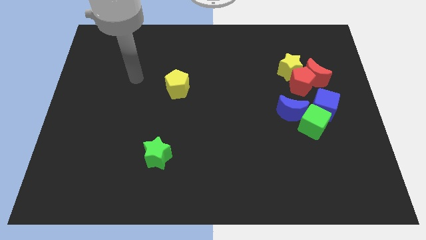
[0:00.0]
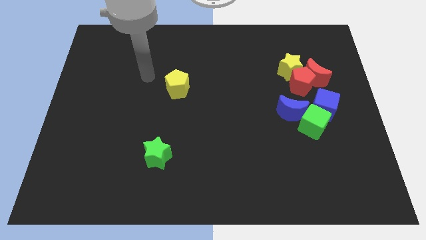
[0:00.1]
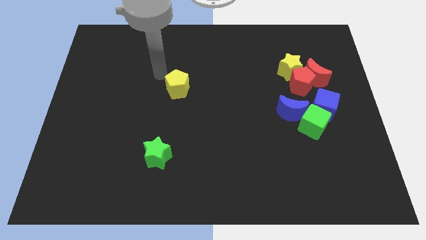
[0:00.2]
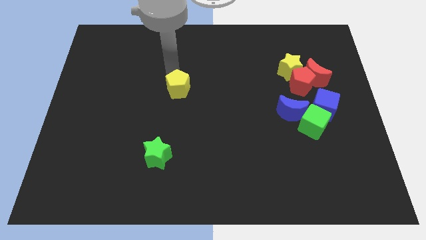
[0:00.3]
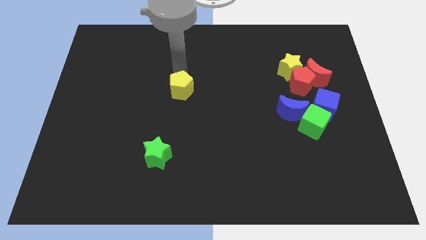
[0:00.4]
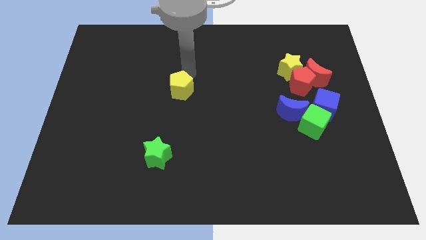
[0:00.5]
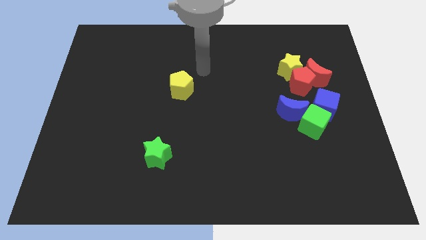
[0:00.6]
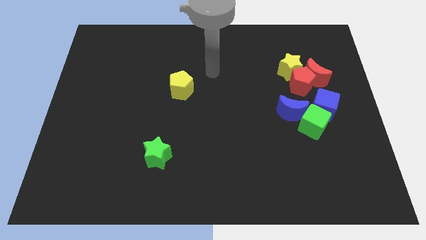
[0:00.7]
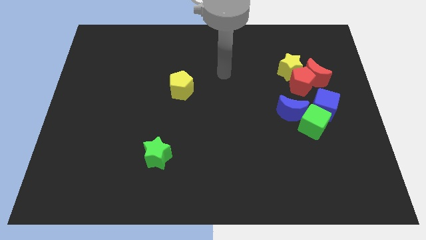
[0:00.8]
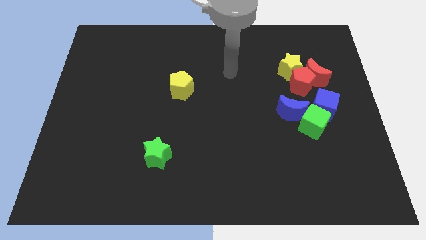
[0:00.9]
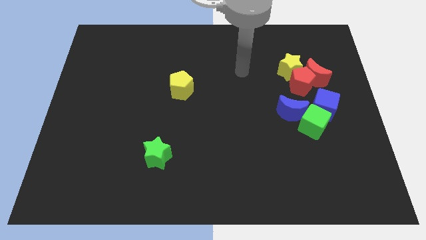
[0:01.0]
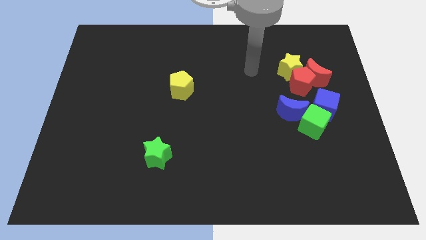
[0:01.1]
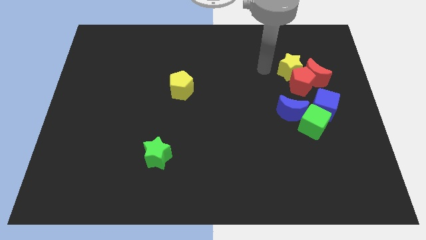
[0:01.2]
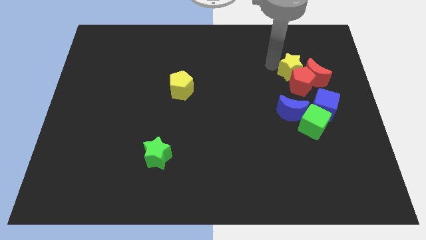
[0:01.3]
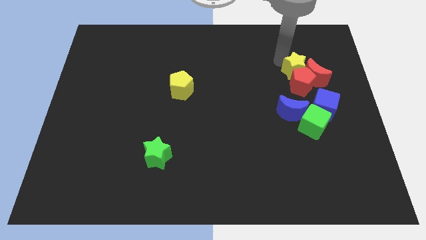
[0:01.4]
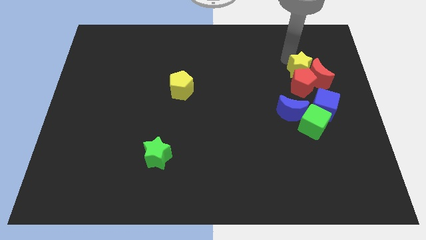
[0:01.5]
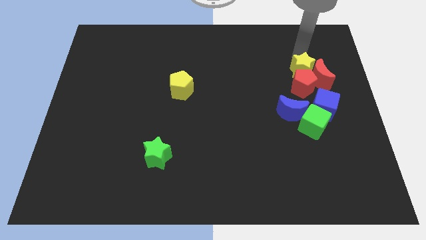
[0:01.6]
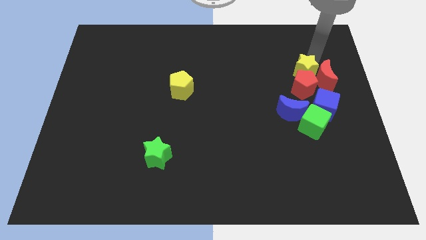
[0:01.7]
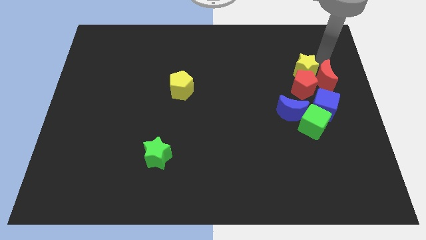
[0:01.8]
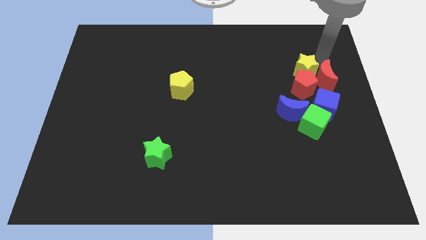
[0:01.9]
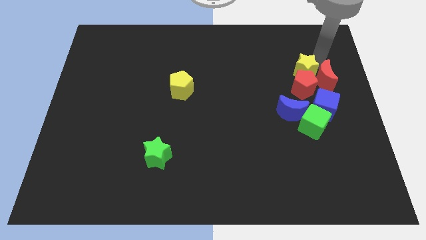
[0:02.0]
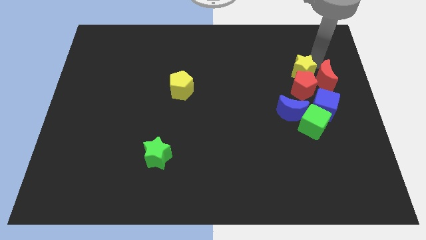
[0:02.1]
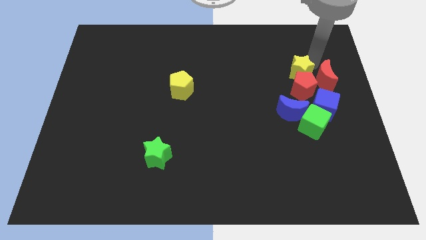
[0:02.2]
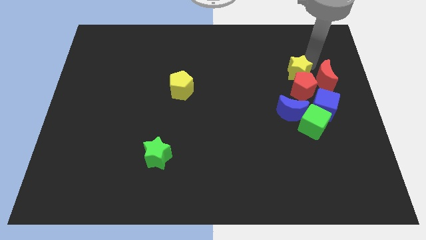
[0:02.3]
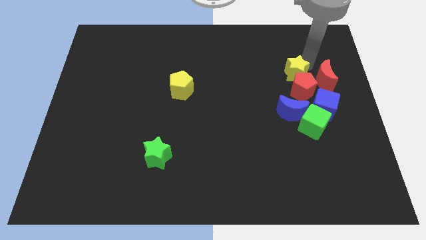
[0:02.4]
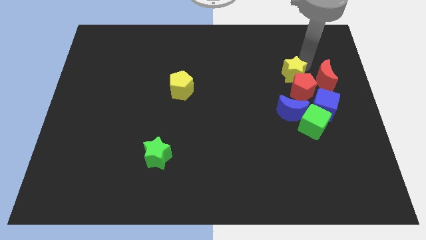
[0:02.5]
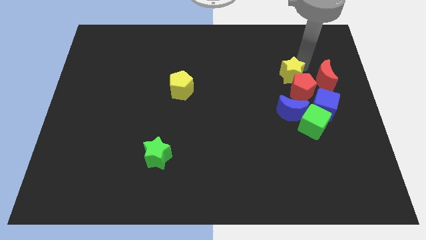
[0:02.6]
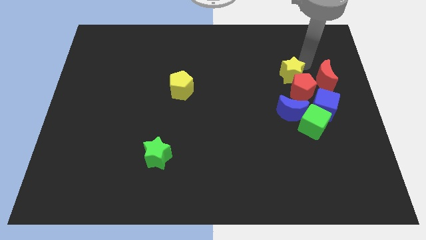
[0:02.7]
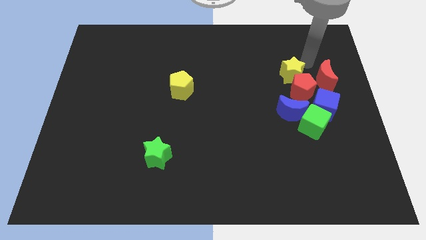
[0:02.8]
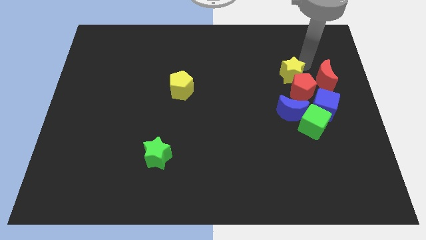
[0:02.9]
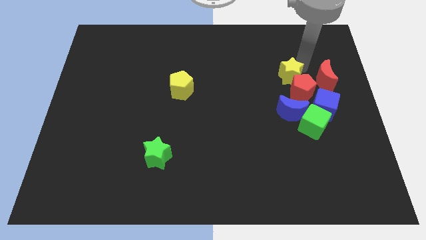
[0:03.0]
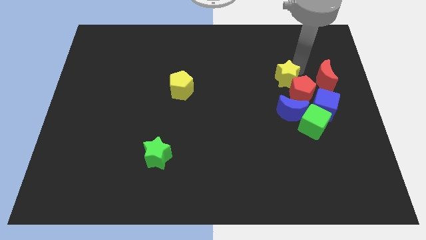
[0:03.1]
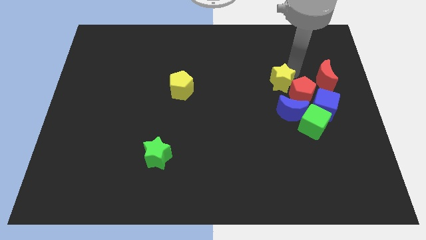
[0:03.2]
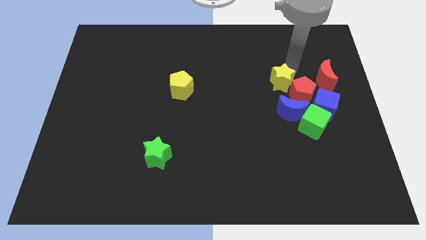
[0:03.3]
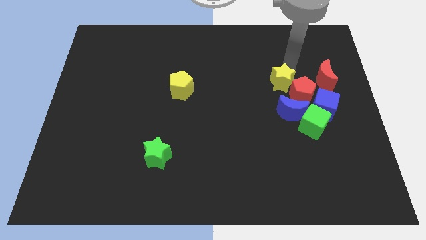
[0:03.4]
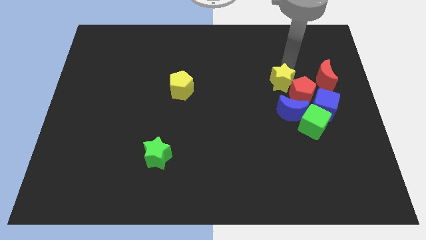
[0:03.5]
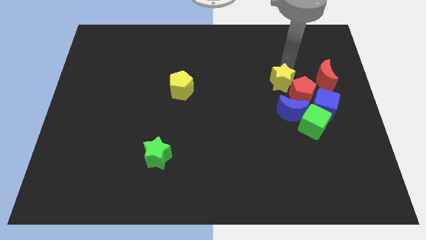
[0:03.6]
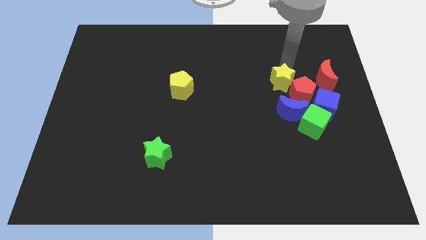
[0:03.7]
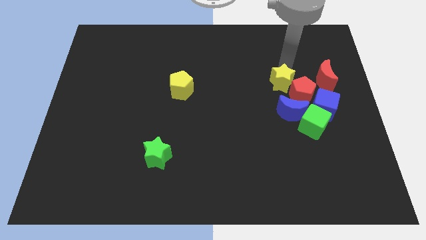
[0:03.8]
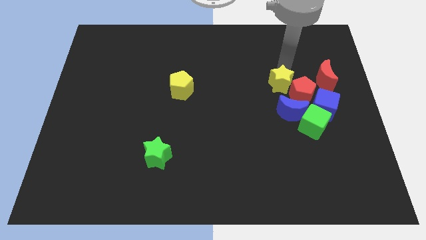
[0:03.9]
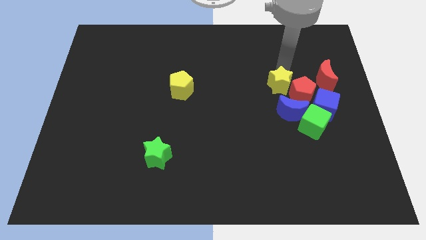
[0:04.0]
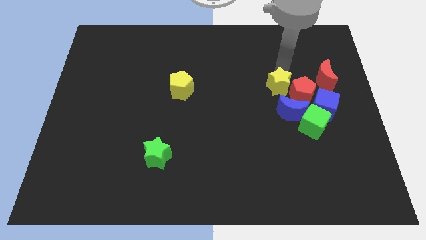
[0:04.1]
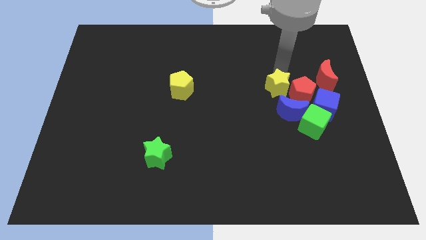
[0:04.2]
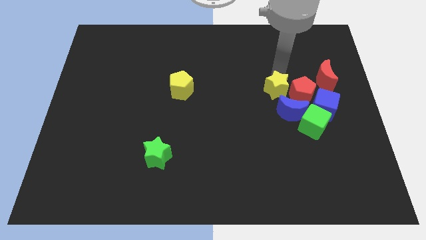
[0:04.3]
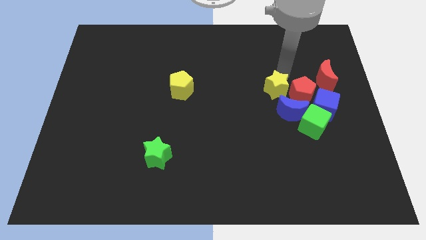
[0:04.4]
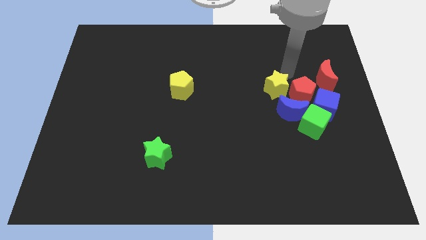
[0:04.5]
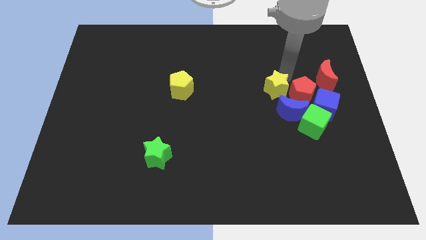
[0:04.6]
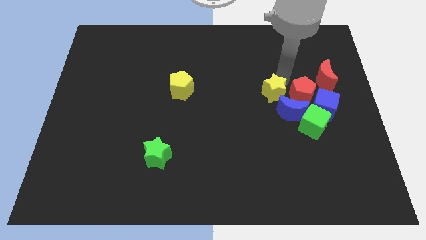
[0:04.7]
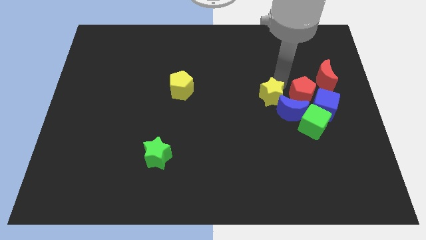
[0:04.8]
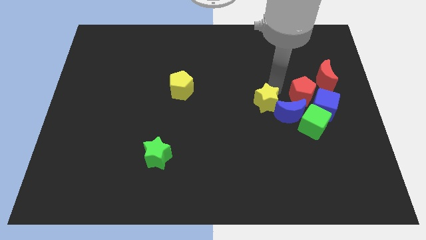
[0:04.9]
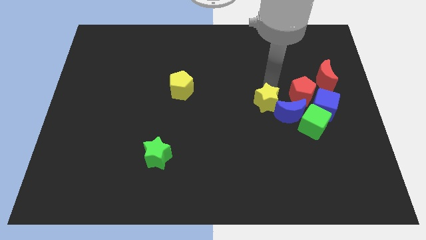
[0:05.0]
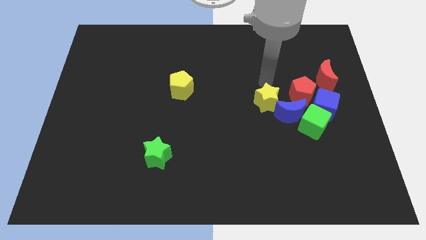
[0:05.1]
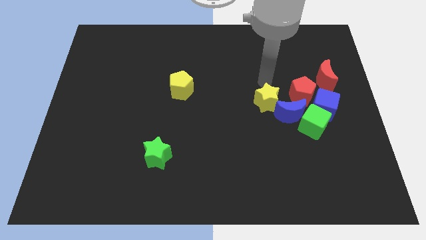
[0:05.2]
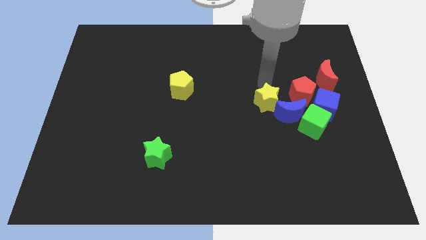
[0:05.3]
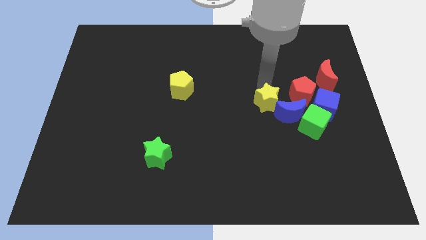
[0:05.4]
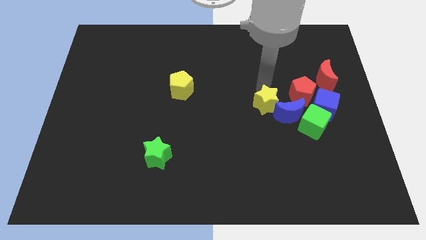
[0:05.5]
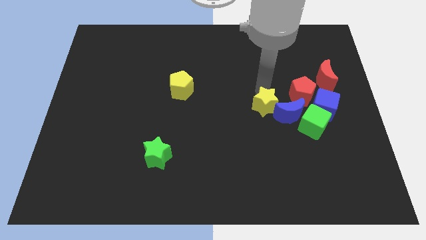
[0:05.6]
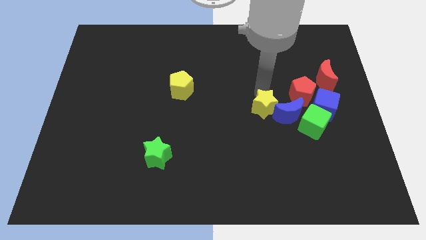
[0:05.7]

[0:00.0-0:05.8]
slide the yellow star left of the green cube

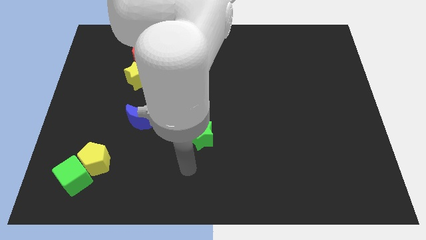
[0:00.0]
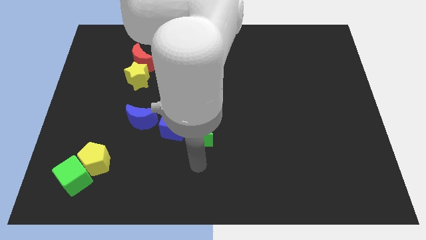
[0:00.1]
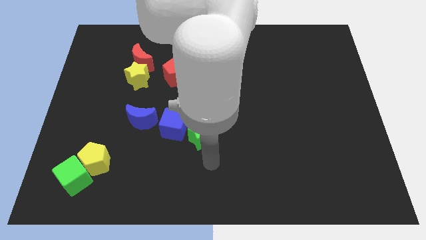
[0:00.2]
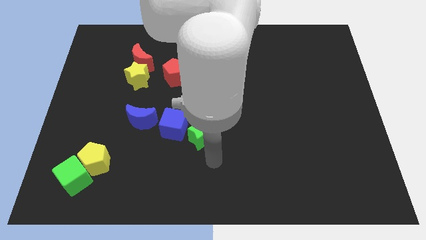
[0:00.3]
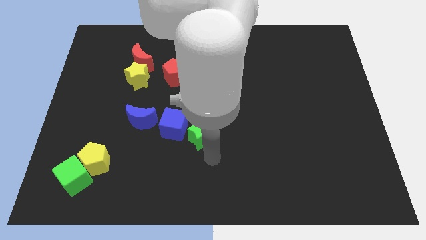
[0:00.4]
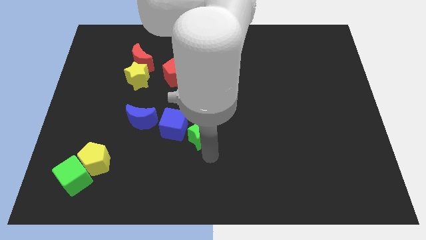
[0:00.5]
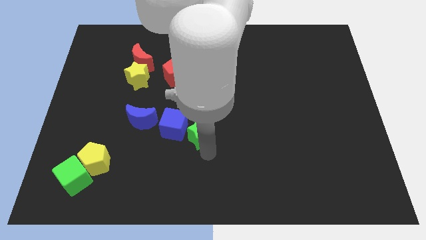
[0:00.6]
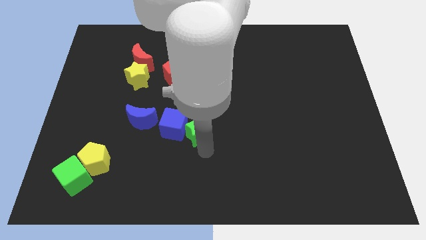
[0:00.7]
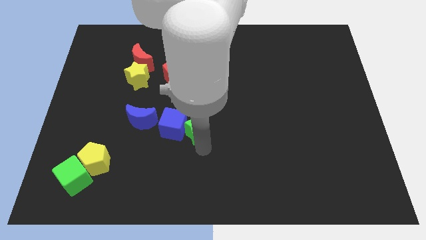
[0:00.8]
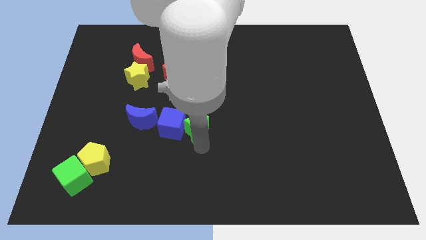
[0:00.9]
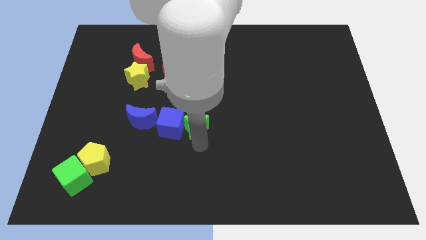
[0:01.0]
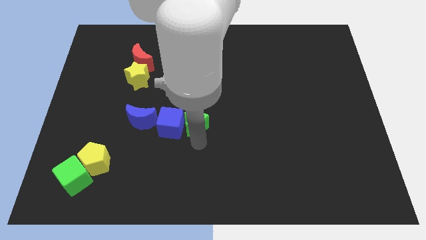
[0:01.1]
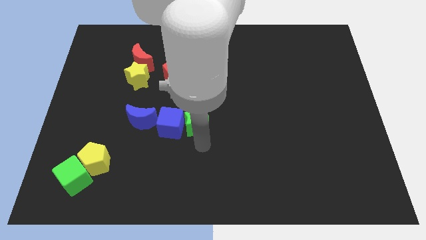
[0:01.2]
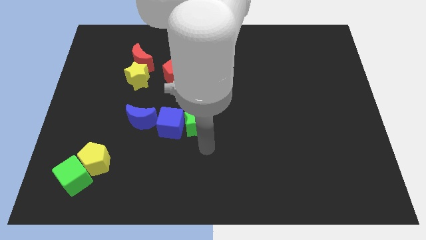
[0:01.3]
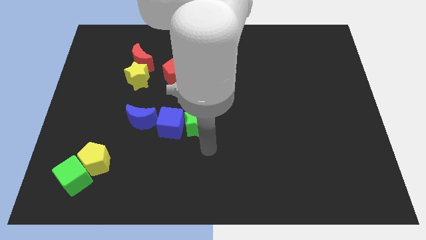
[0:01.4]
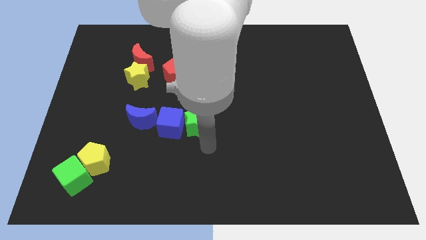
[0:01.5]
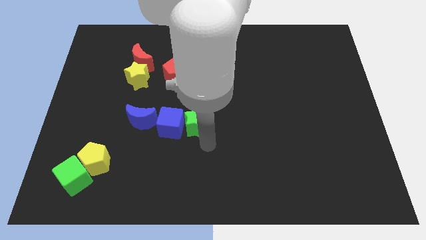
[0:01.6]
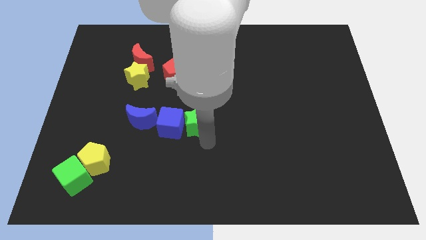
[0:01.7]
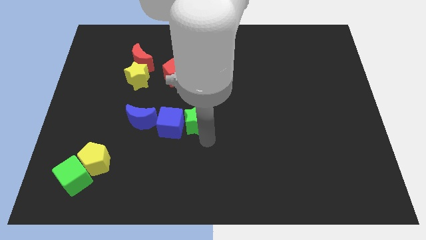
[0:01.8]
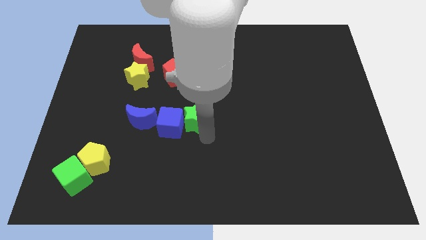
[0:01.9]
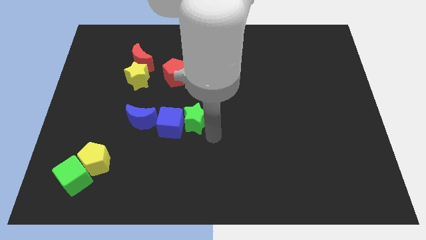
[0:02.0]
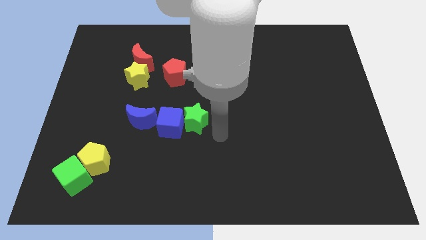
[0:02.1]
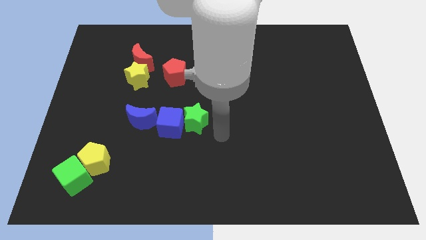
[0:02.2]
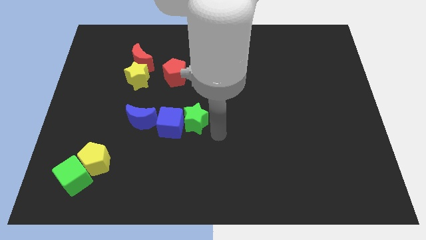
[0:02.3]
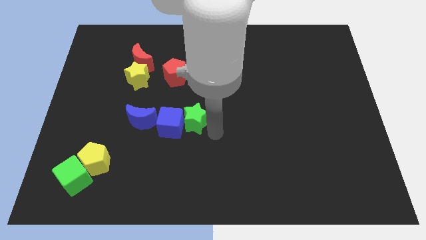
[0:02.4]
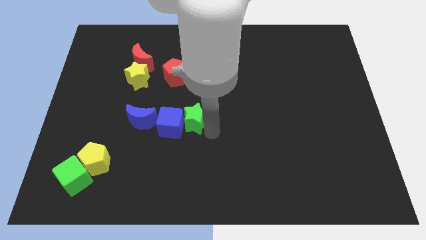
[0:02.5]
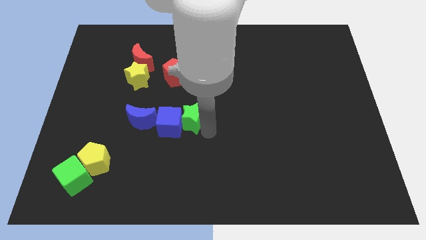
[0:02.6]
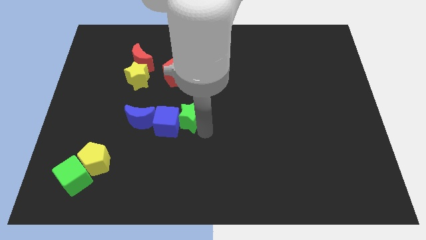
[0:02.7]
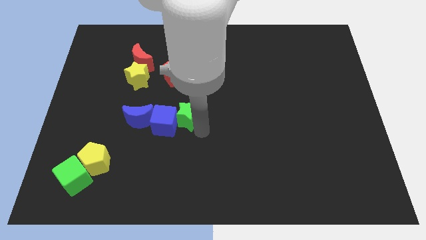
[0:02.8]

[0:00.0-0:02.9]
slide the green star below the red pentagon
